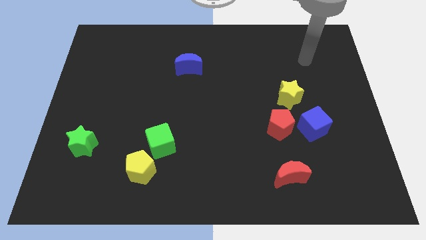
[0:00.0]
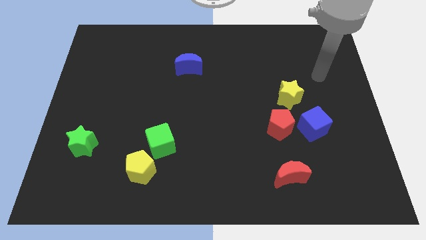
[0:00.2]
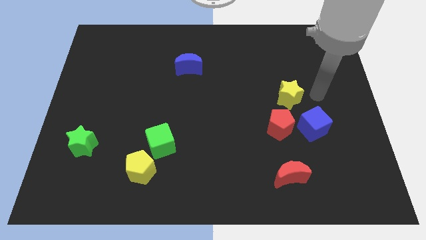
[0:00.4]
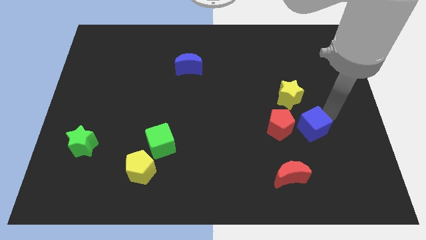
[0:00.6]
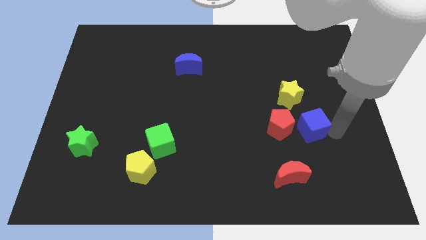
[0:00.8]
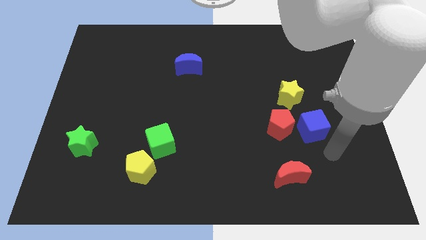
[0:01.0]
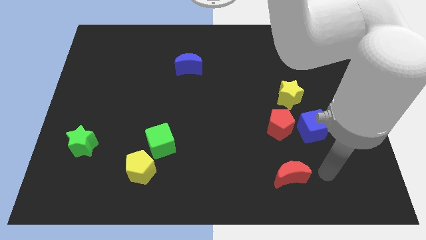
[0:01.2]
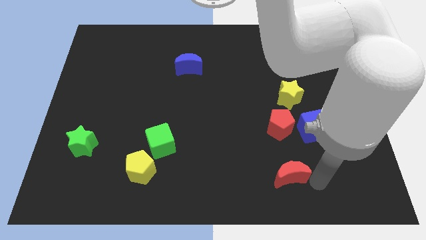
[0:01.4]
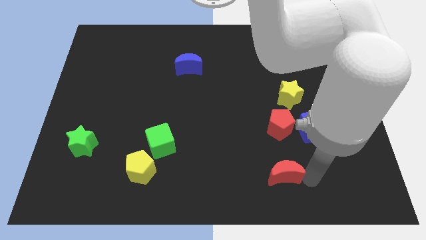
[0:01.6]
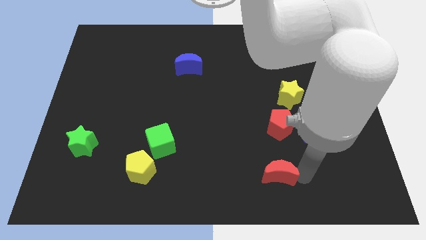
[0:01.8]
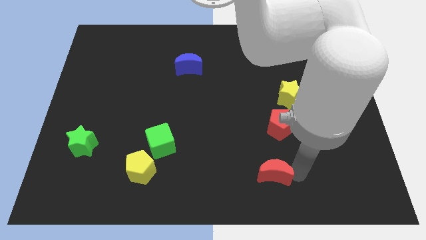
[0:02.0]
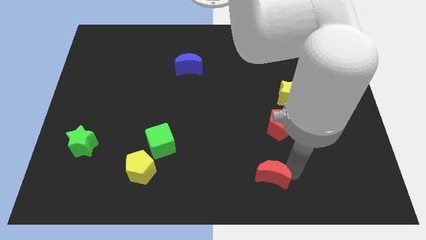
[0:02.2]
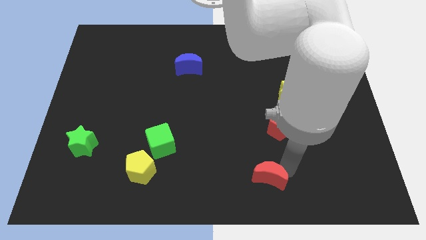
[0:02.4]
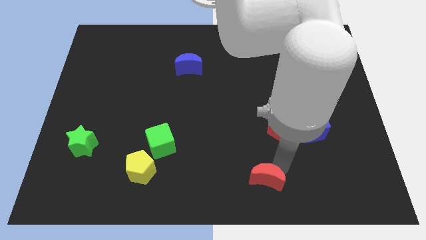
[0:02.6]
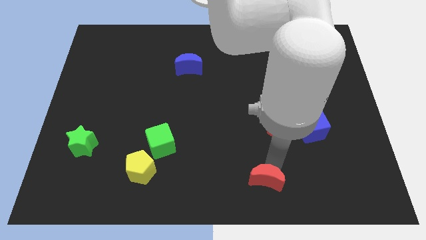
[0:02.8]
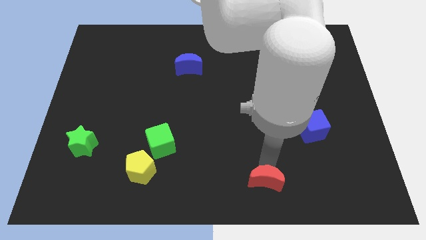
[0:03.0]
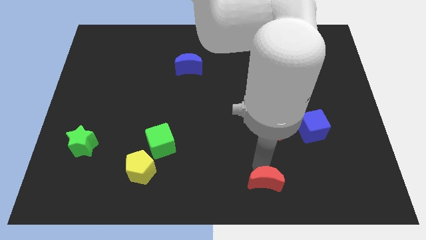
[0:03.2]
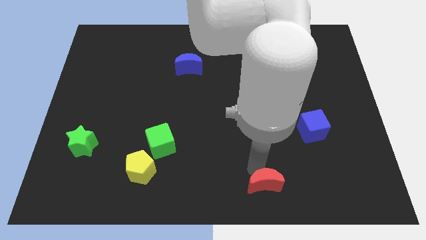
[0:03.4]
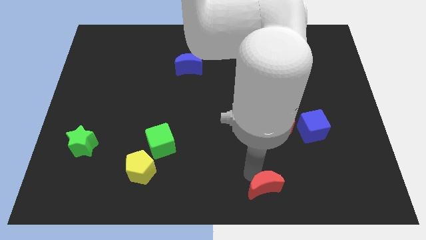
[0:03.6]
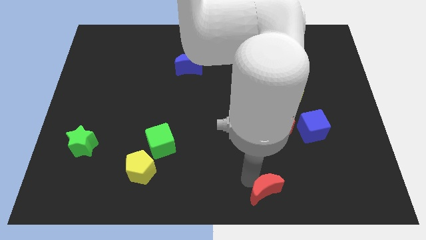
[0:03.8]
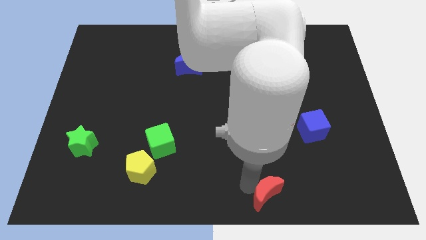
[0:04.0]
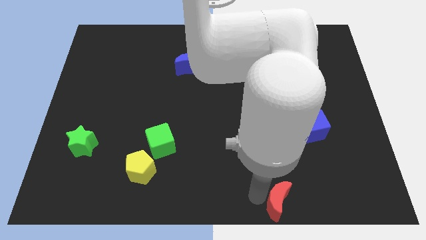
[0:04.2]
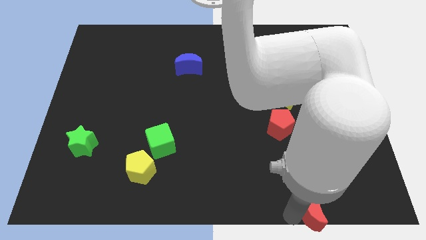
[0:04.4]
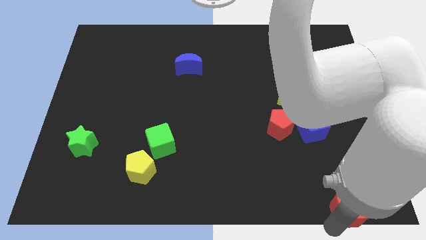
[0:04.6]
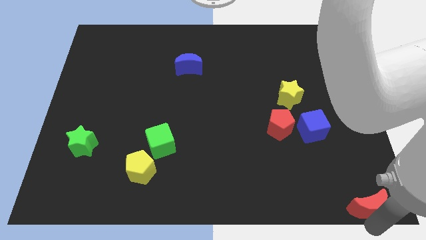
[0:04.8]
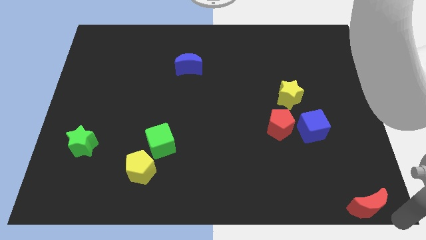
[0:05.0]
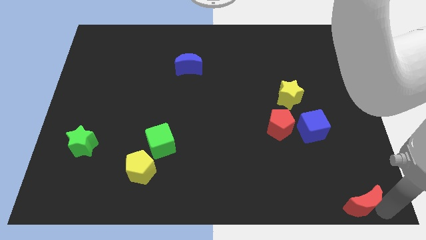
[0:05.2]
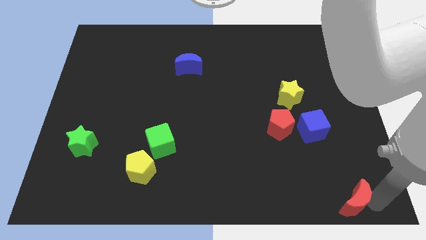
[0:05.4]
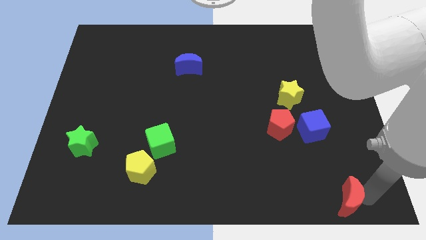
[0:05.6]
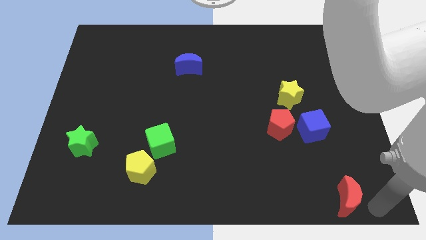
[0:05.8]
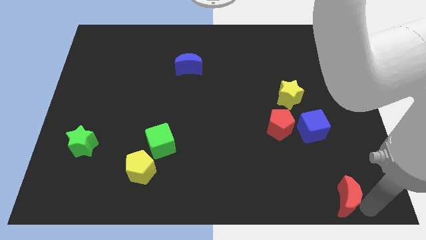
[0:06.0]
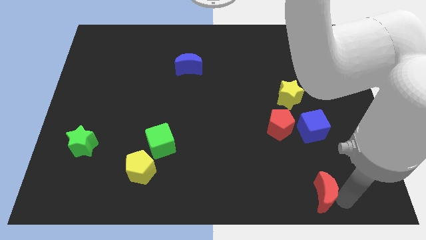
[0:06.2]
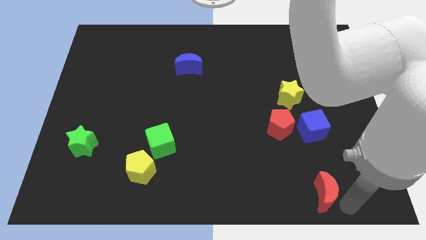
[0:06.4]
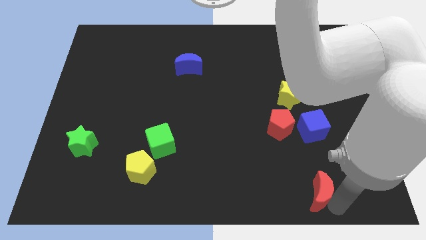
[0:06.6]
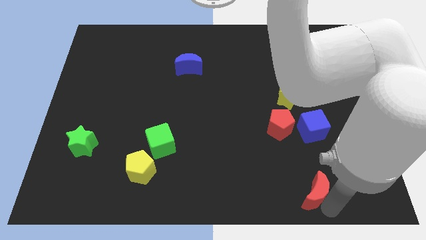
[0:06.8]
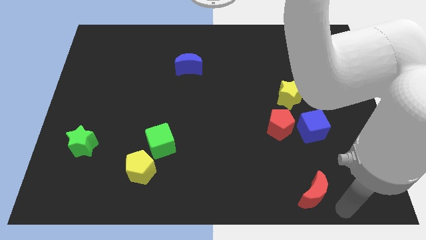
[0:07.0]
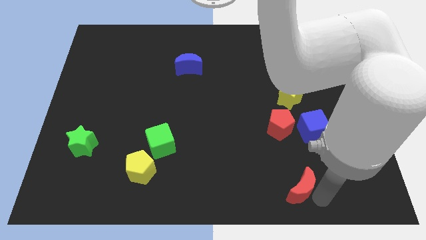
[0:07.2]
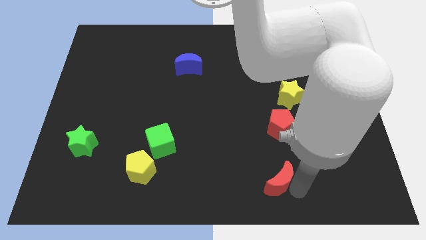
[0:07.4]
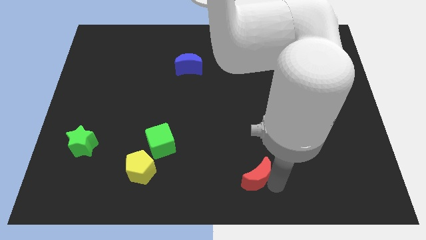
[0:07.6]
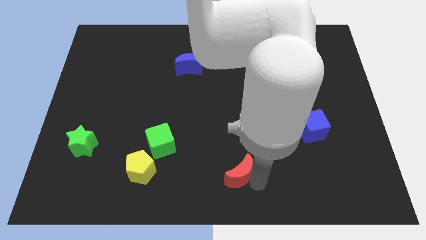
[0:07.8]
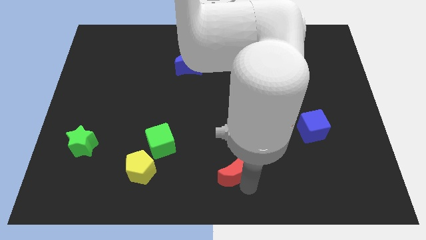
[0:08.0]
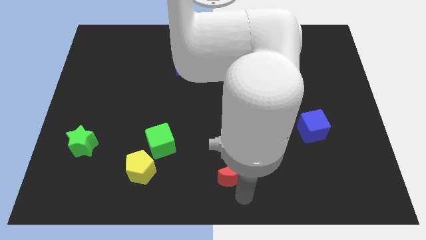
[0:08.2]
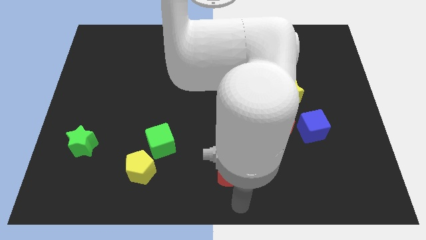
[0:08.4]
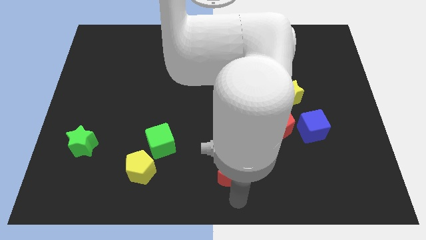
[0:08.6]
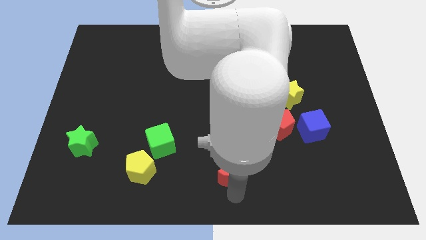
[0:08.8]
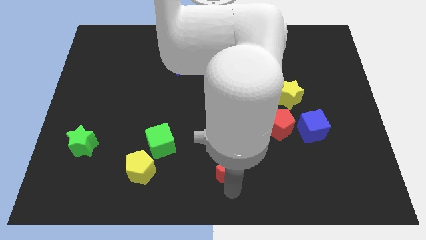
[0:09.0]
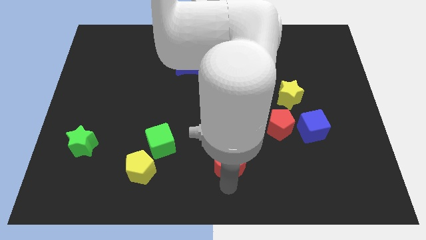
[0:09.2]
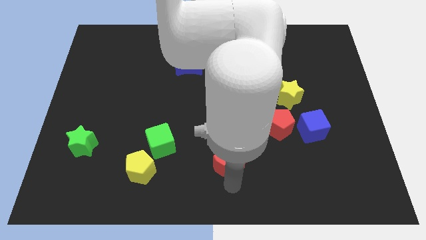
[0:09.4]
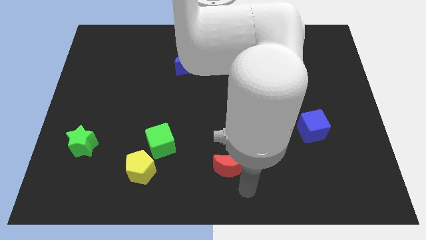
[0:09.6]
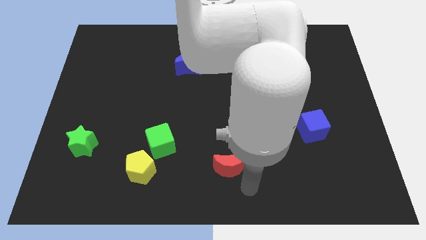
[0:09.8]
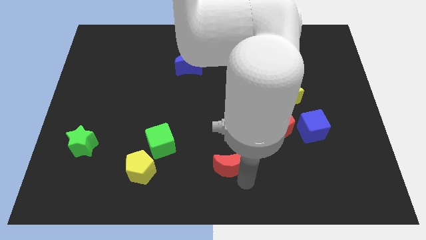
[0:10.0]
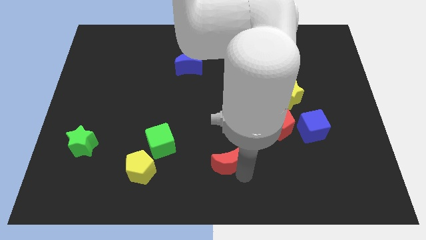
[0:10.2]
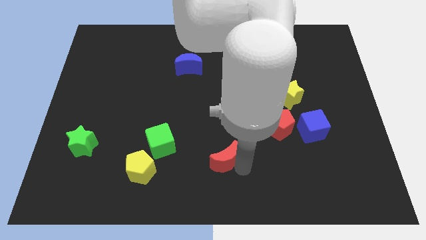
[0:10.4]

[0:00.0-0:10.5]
move the red moon just right of the green cube

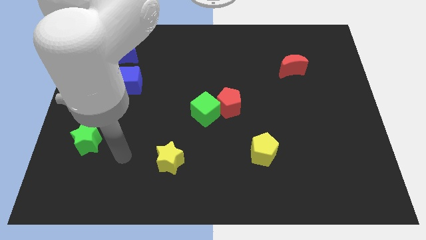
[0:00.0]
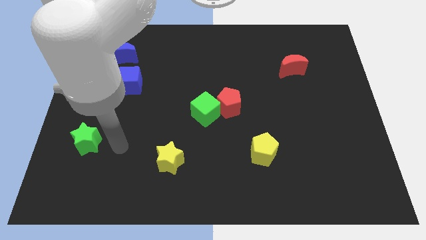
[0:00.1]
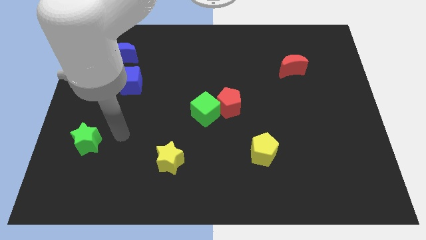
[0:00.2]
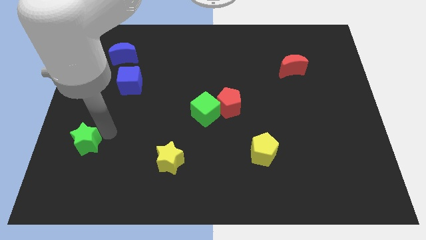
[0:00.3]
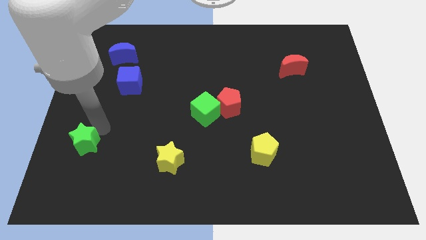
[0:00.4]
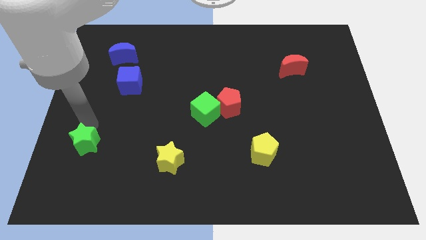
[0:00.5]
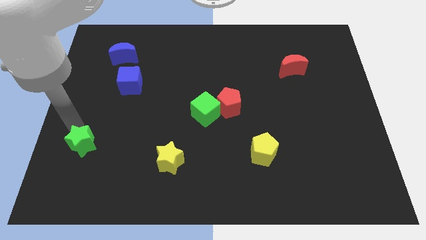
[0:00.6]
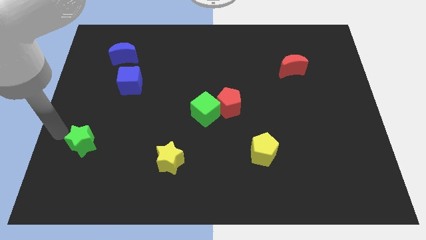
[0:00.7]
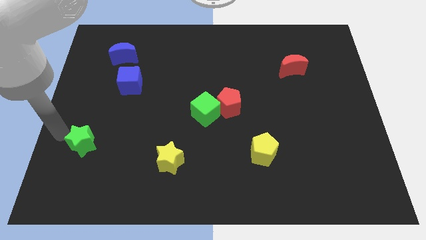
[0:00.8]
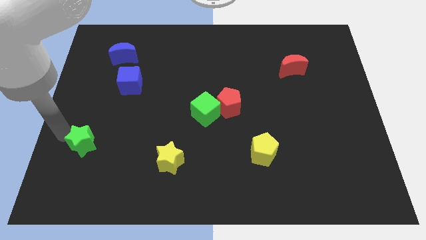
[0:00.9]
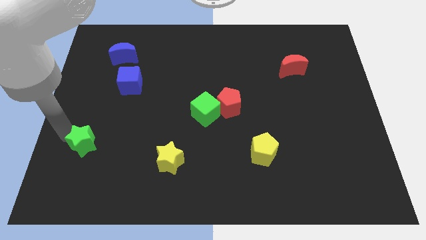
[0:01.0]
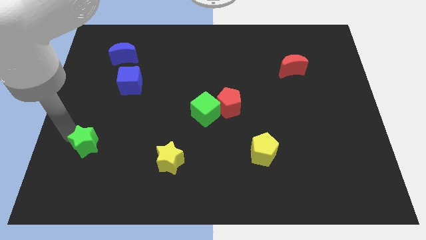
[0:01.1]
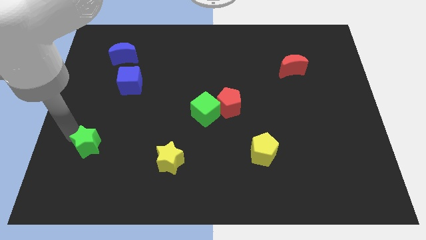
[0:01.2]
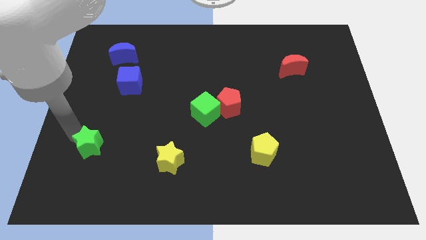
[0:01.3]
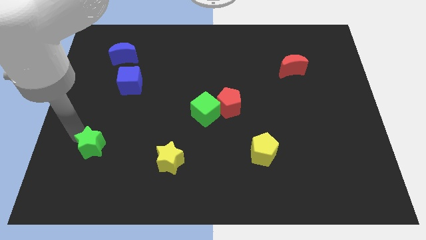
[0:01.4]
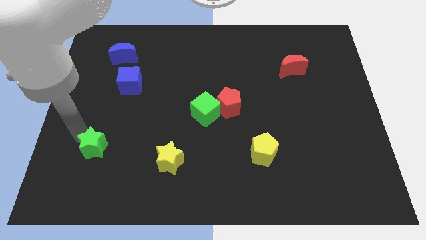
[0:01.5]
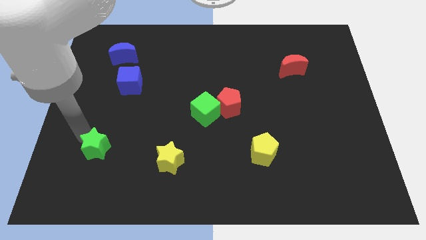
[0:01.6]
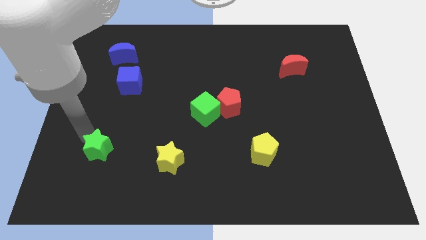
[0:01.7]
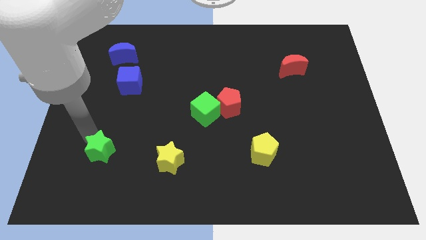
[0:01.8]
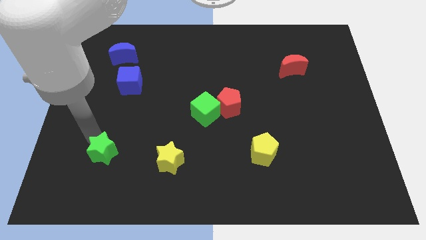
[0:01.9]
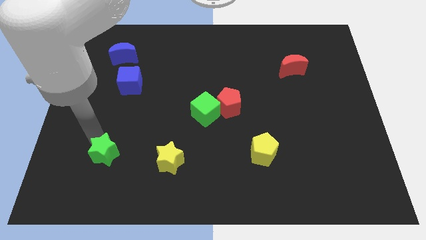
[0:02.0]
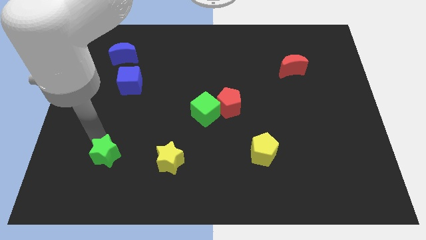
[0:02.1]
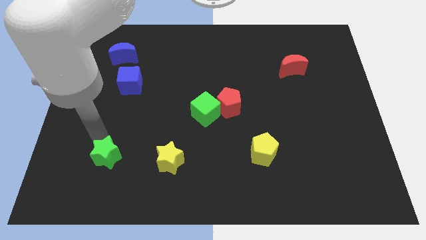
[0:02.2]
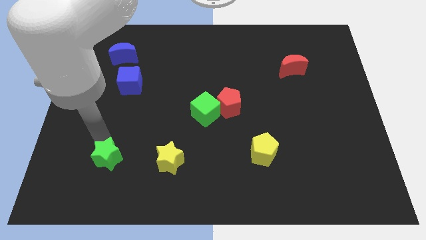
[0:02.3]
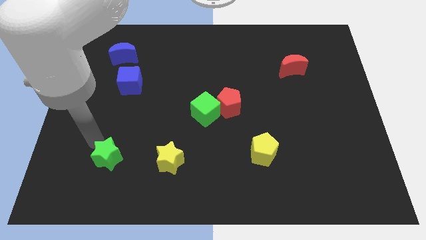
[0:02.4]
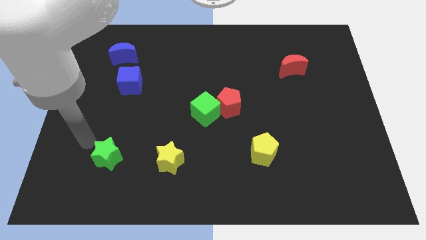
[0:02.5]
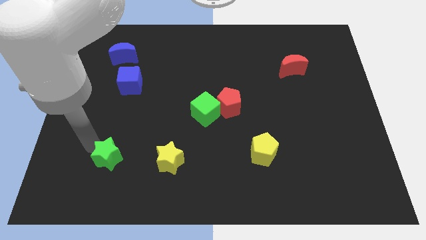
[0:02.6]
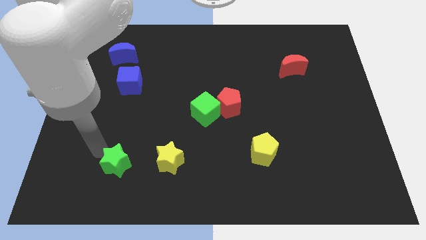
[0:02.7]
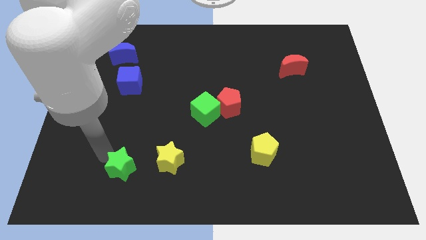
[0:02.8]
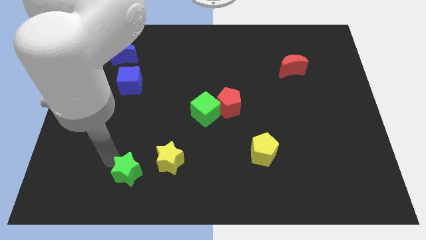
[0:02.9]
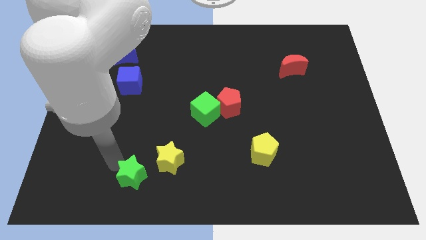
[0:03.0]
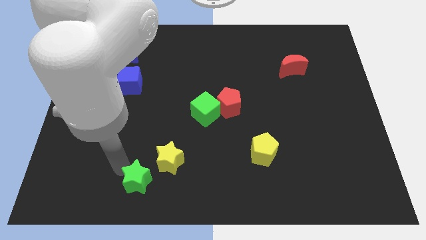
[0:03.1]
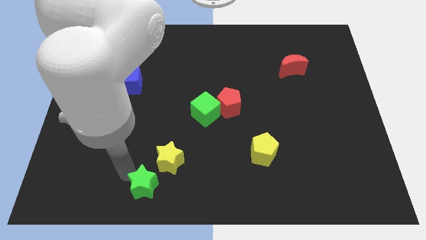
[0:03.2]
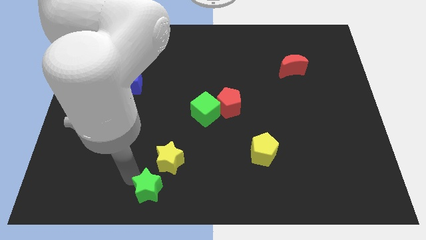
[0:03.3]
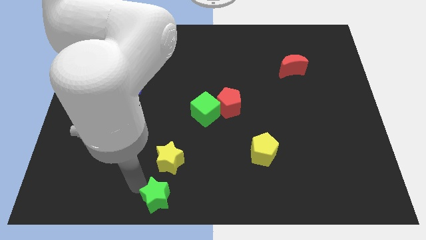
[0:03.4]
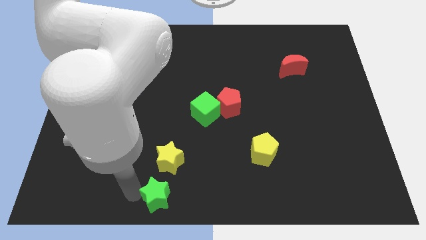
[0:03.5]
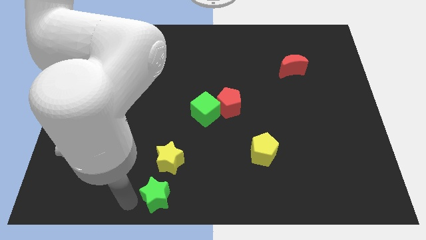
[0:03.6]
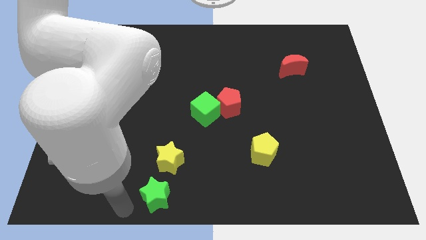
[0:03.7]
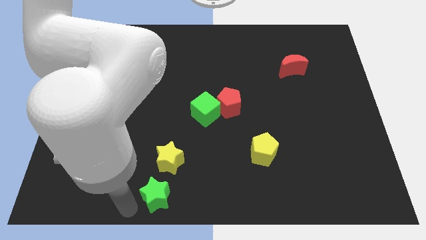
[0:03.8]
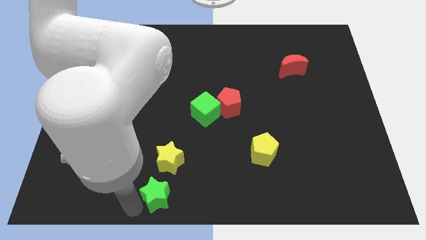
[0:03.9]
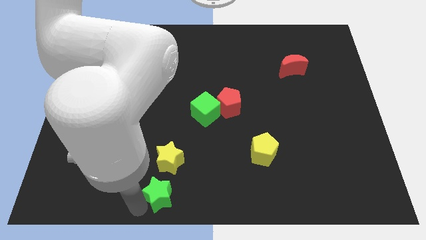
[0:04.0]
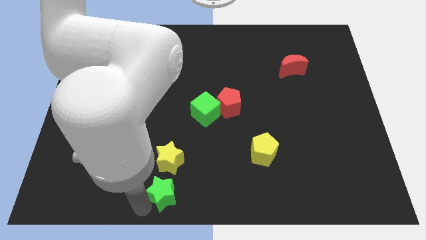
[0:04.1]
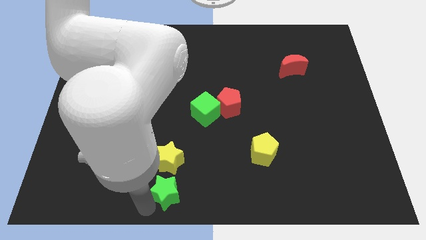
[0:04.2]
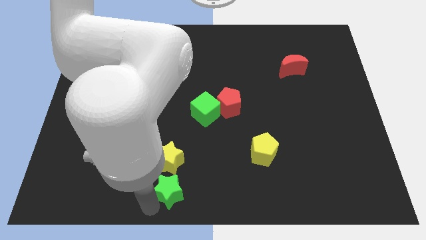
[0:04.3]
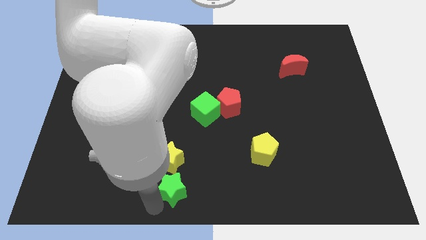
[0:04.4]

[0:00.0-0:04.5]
push the green star to the bottom right of the yellow star
